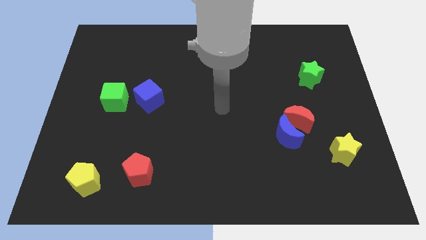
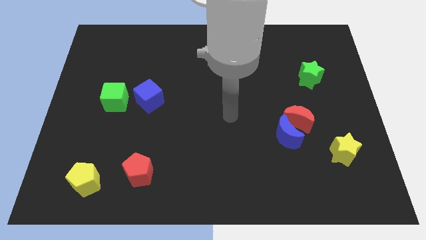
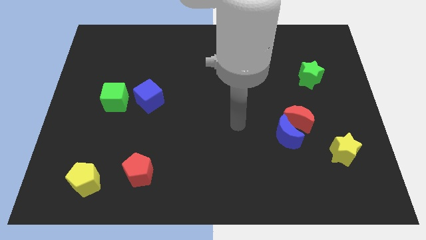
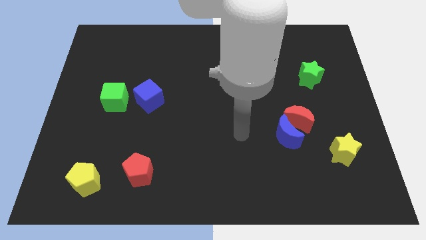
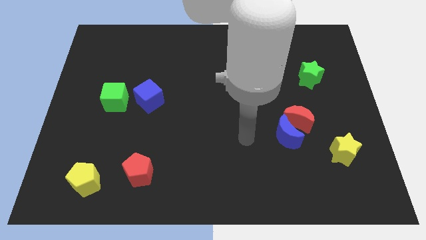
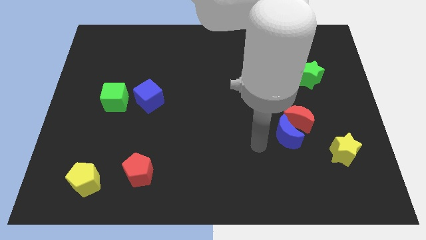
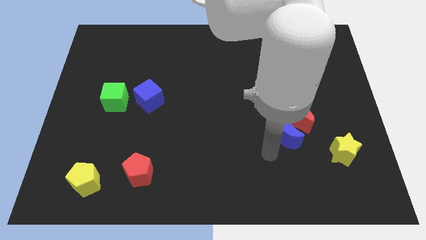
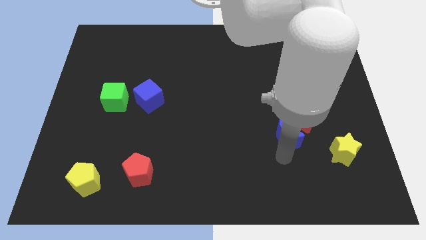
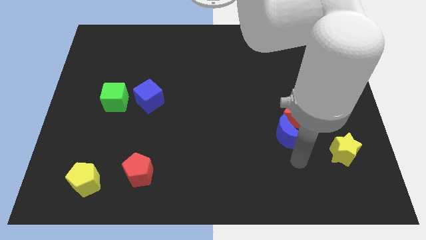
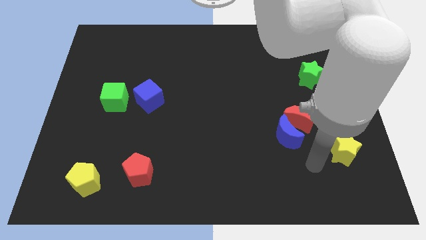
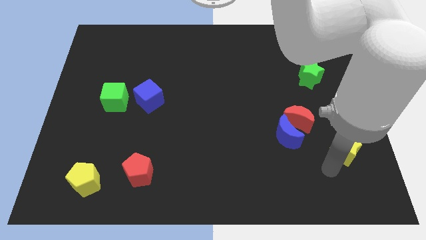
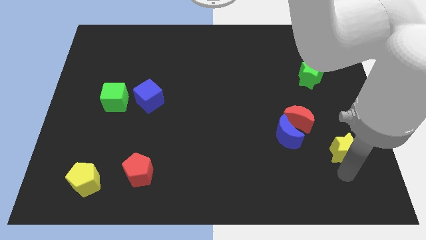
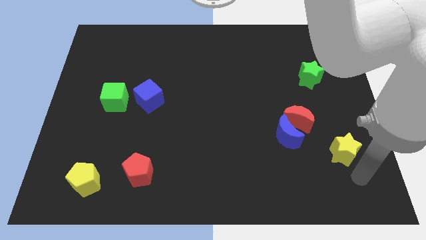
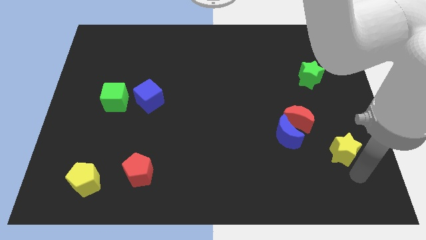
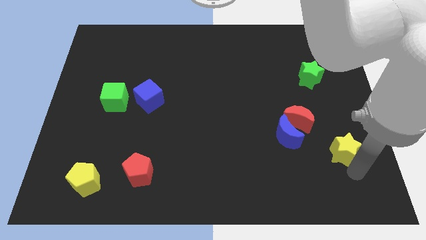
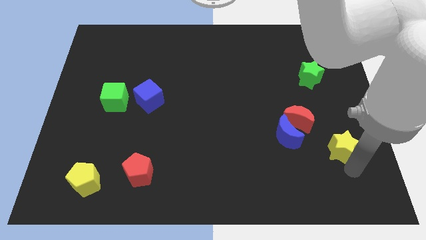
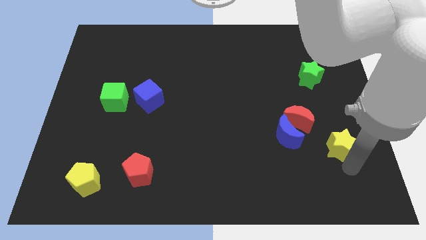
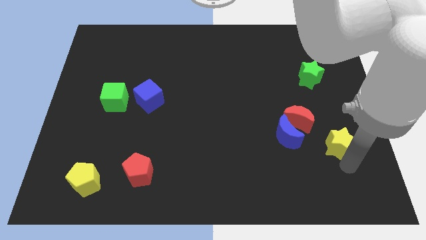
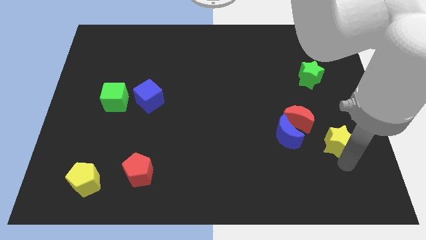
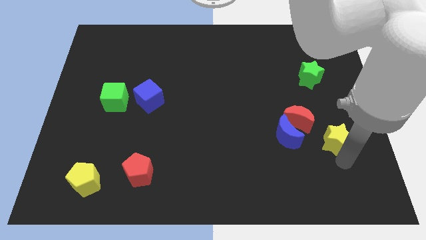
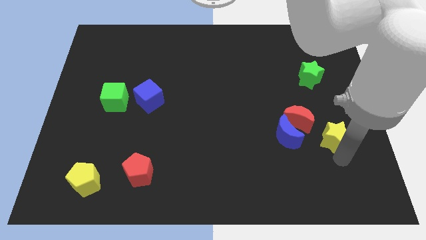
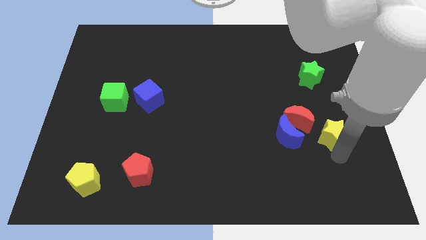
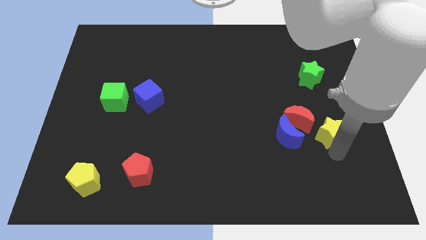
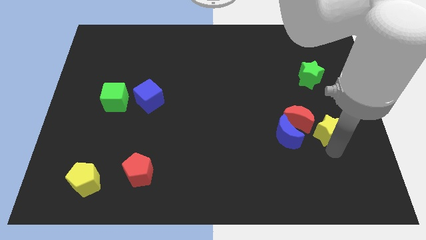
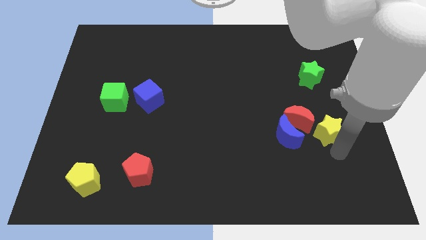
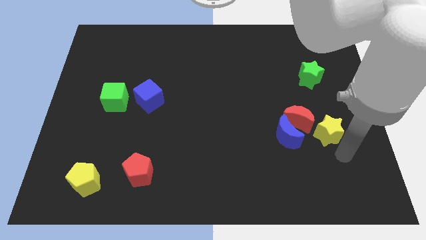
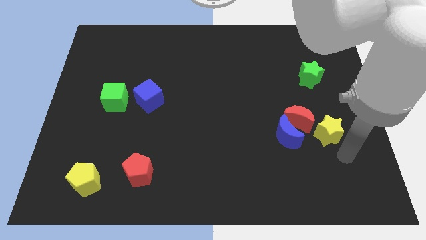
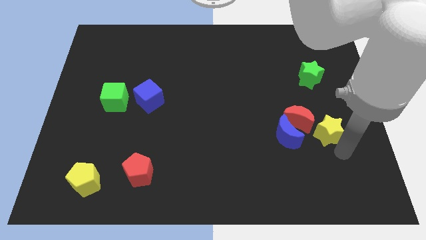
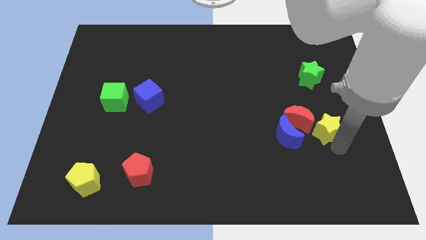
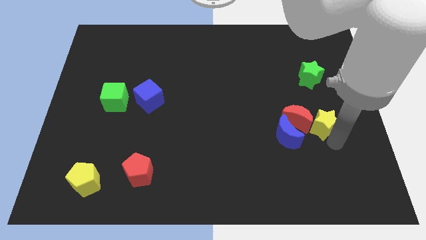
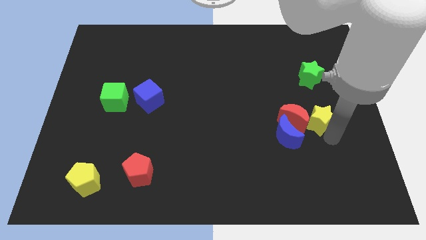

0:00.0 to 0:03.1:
slide the yellow star a bit upwards and to the left diagonally

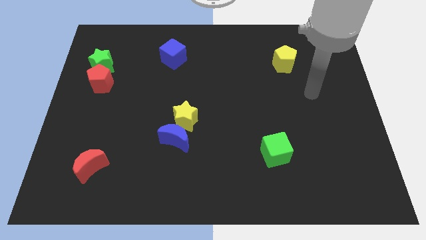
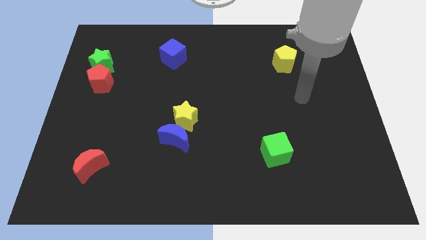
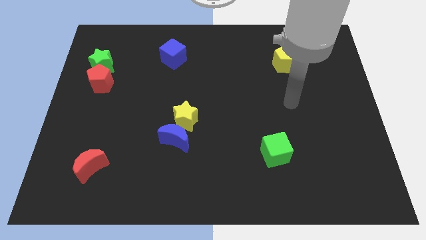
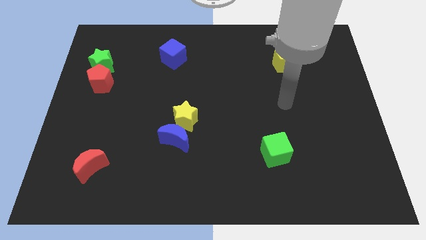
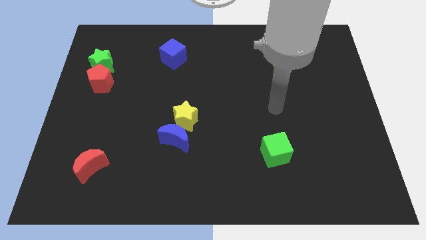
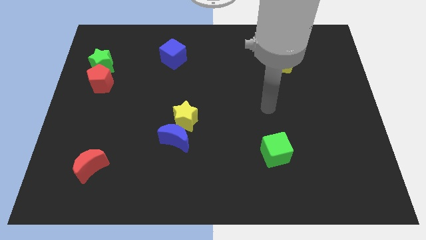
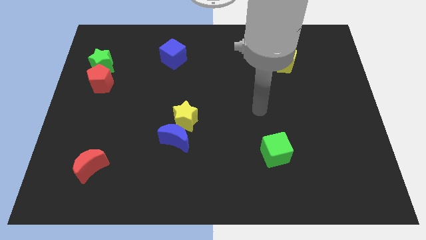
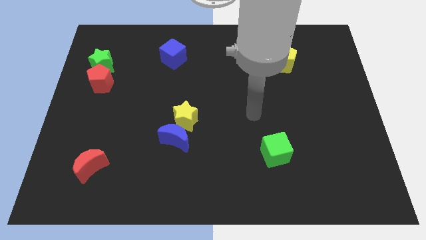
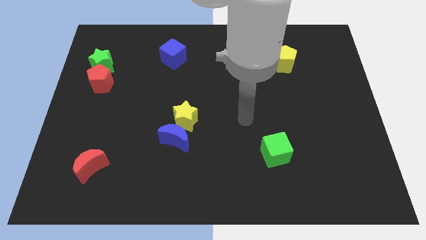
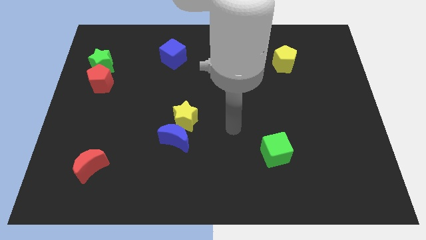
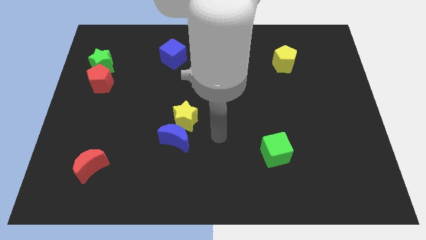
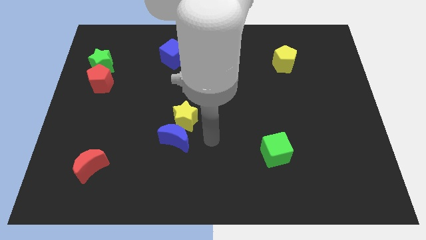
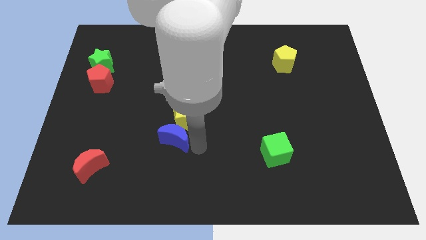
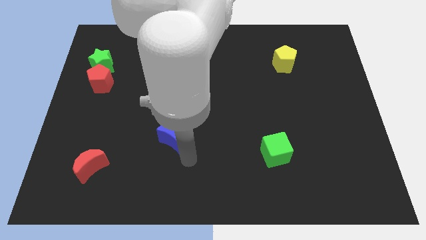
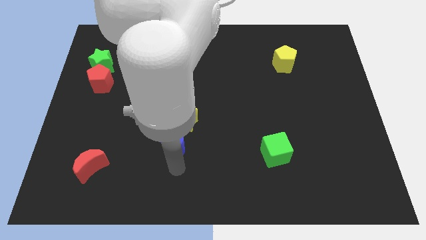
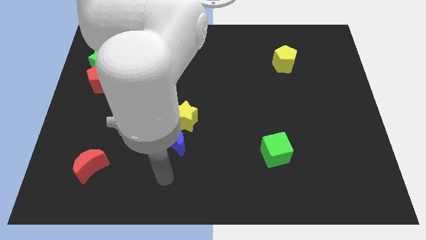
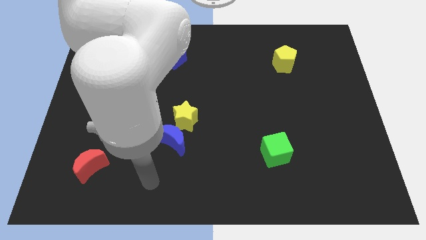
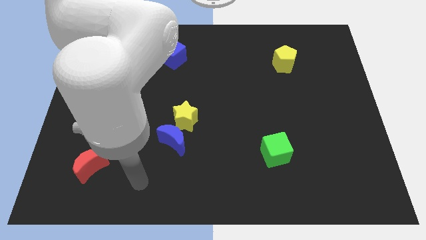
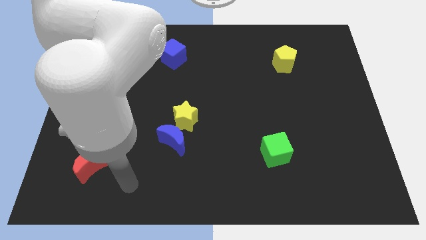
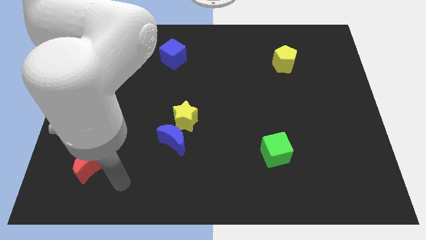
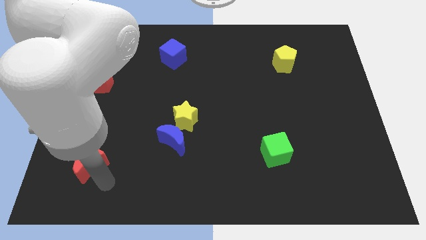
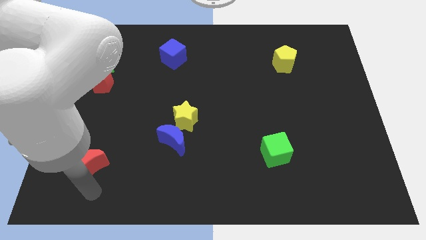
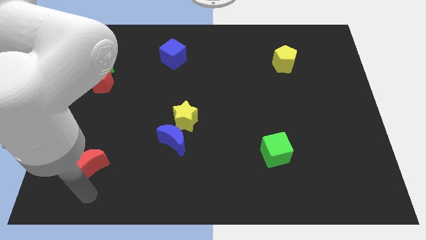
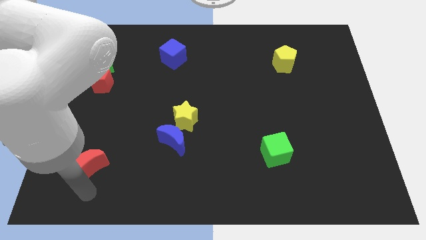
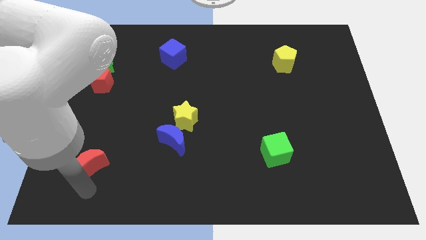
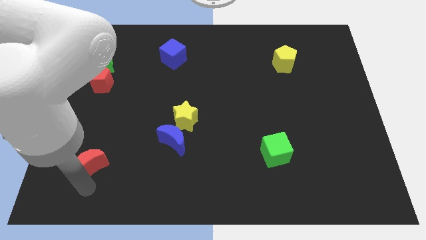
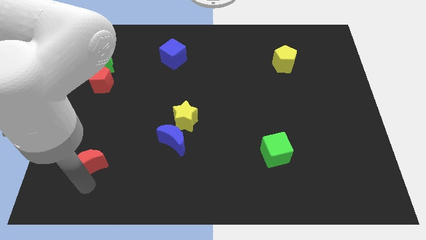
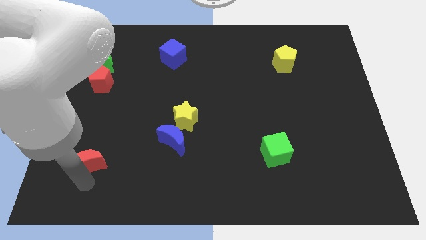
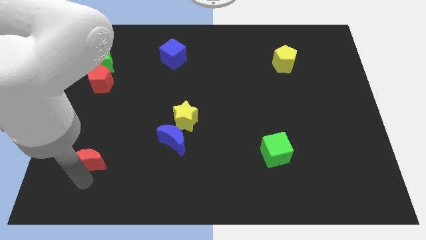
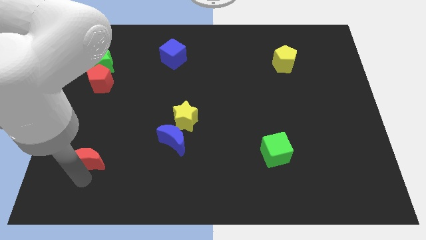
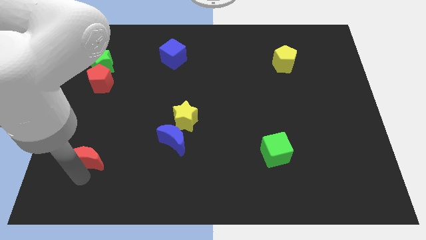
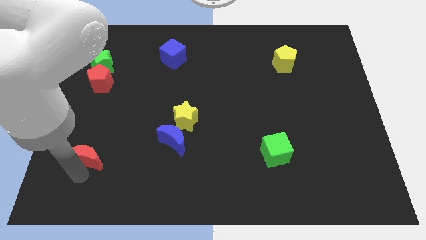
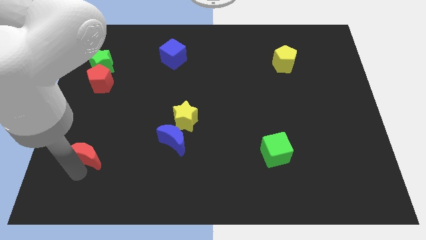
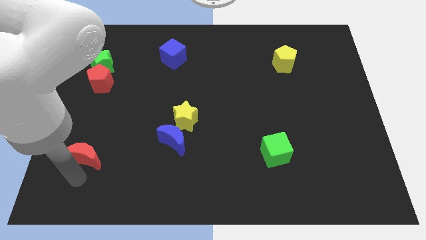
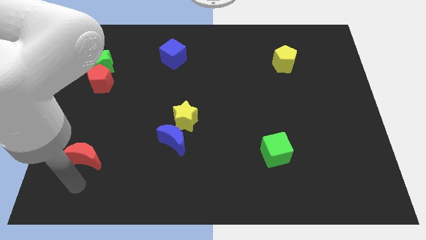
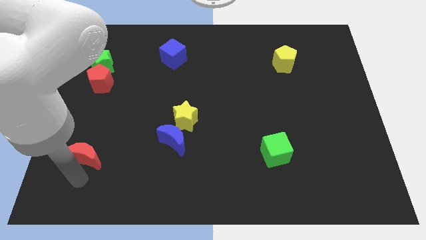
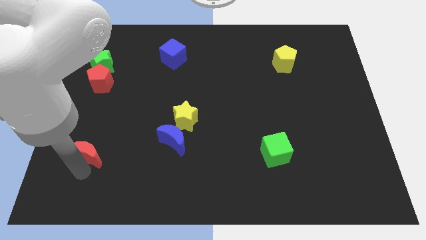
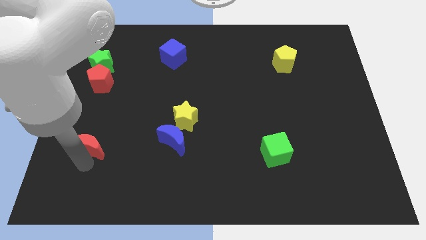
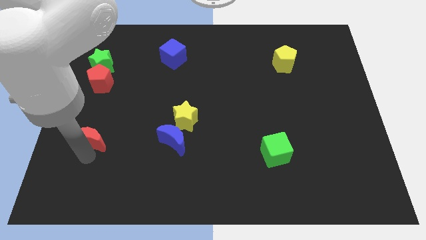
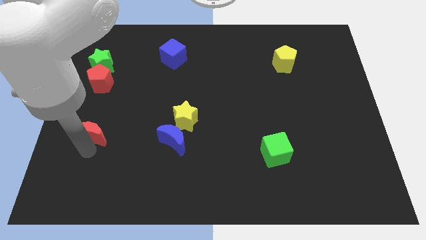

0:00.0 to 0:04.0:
slide the red moon up a little

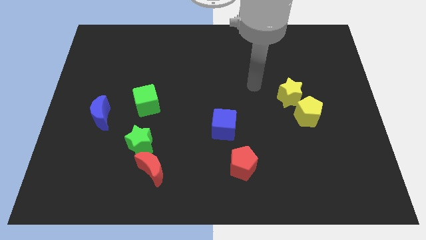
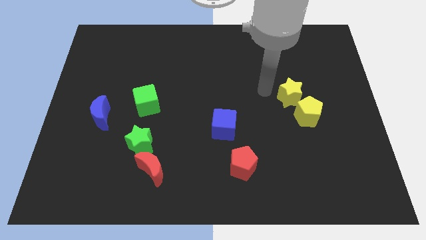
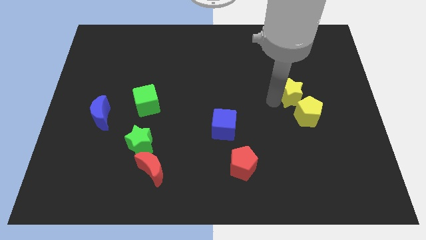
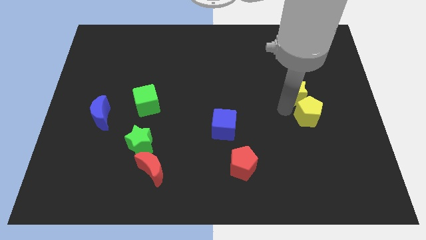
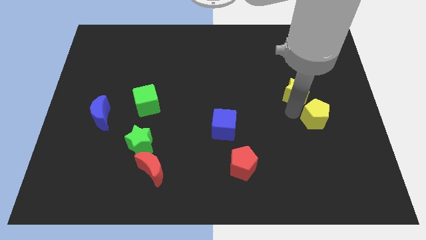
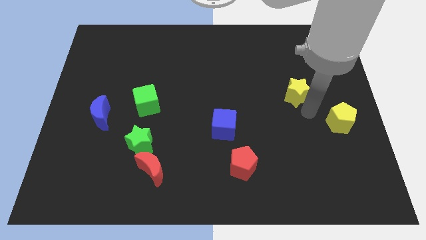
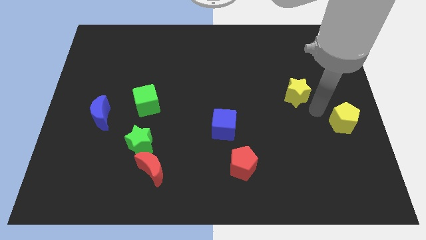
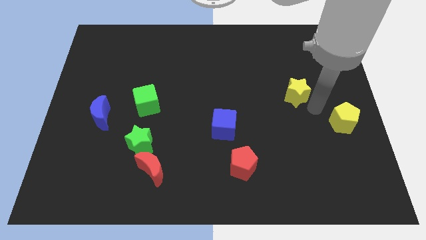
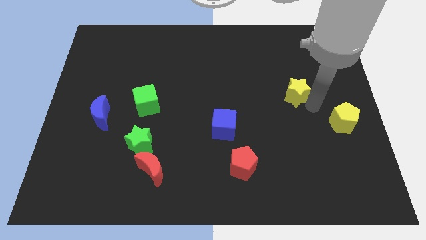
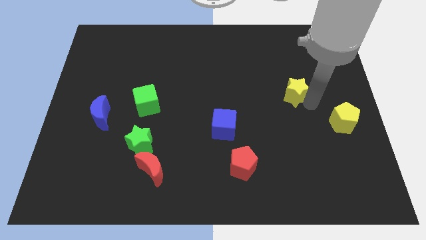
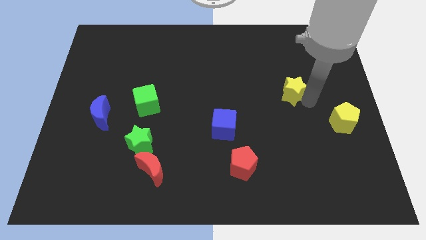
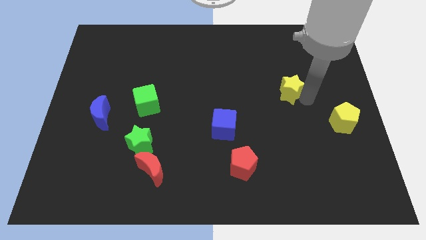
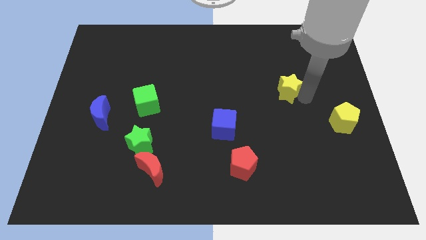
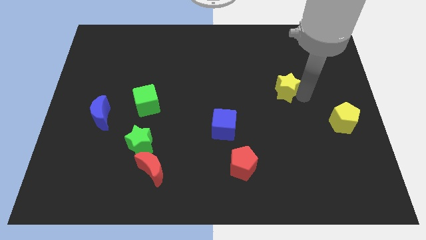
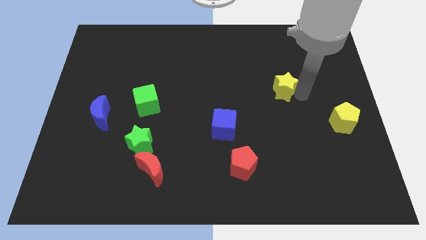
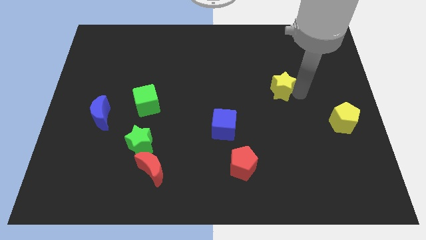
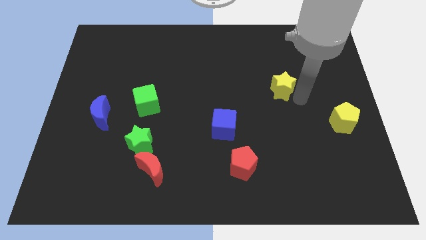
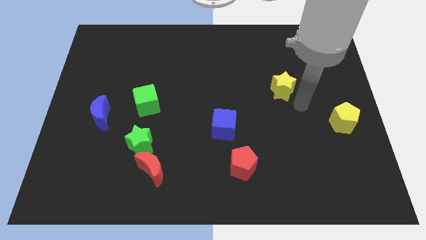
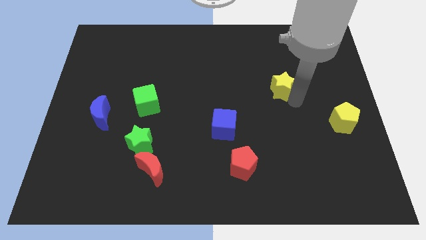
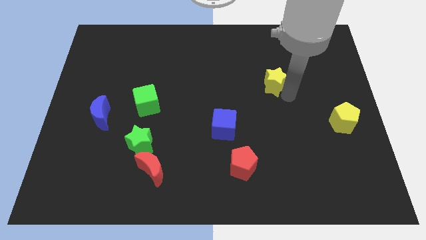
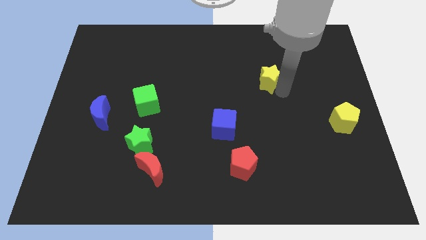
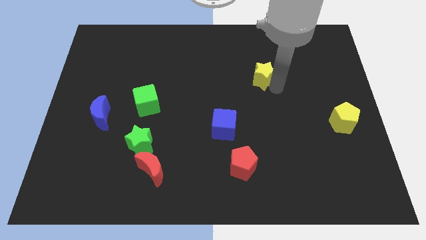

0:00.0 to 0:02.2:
move the yellow star slightly upwards and left diagonally
